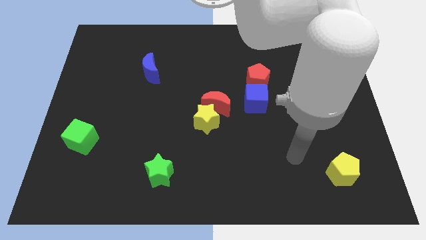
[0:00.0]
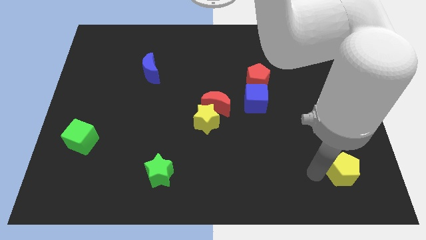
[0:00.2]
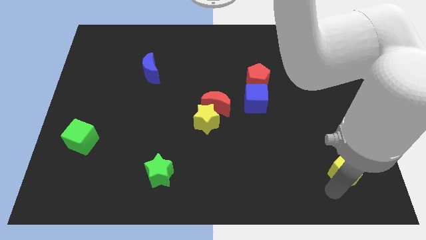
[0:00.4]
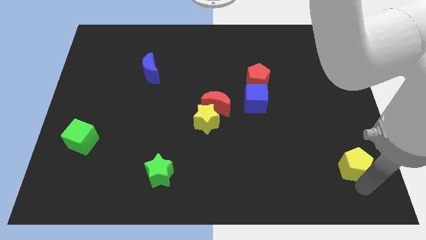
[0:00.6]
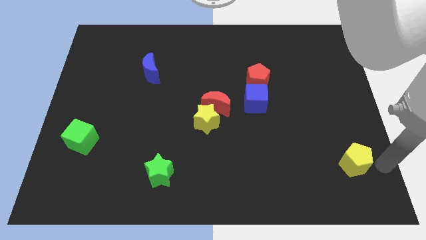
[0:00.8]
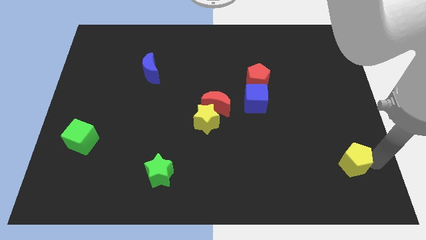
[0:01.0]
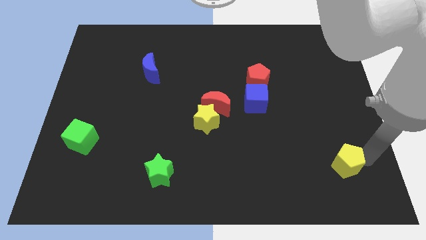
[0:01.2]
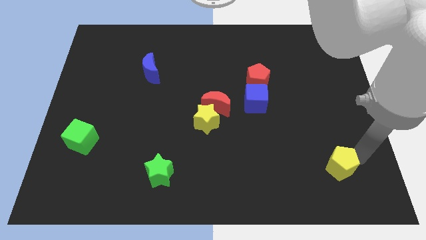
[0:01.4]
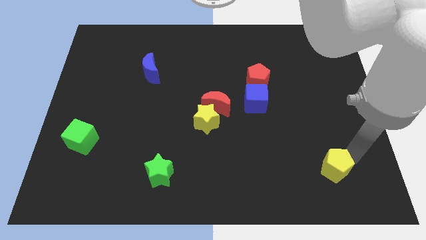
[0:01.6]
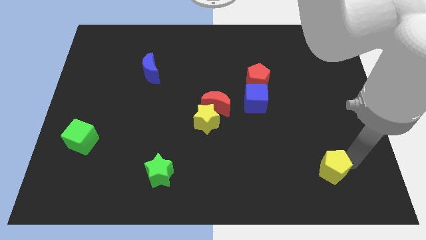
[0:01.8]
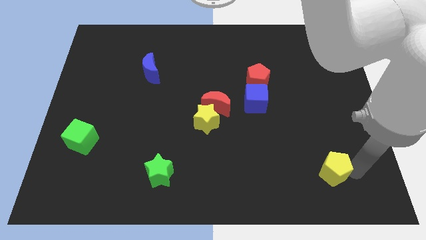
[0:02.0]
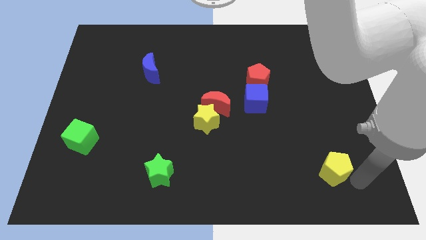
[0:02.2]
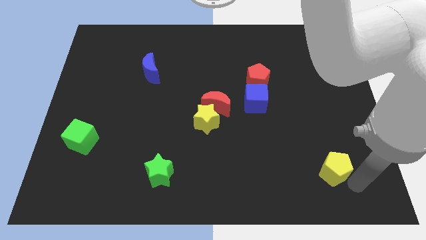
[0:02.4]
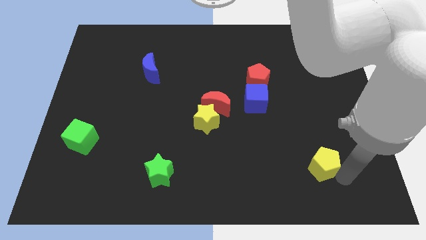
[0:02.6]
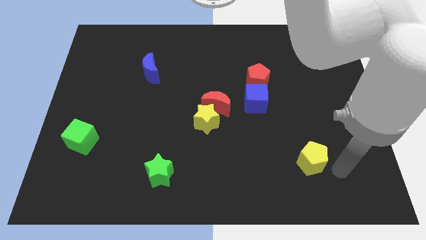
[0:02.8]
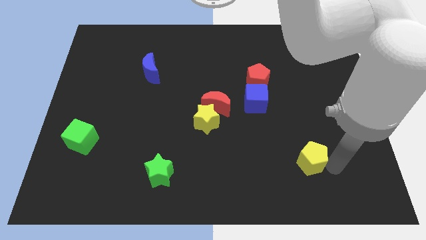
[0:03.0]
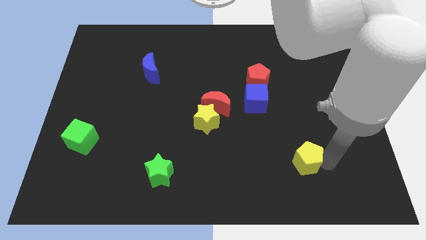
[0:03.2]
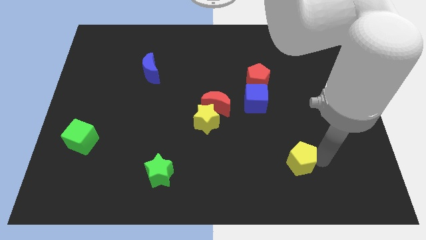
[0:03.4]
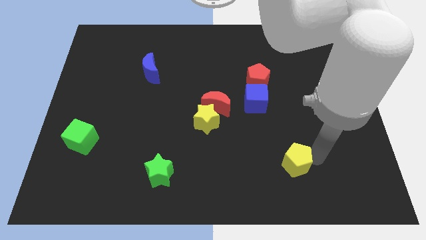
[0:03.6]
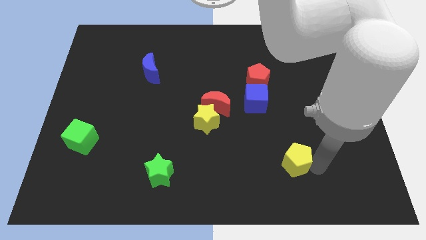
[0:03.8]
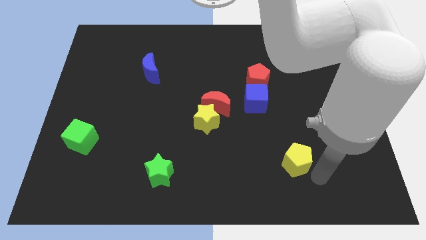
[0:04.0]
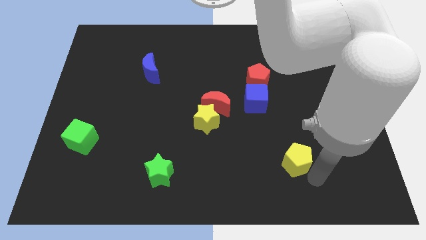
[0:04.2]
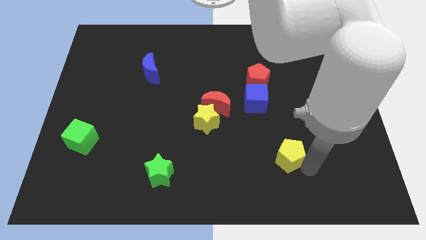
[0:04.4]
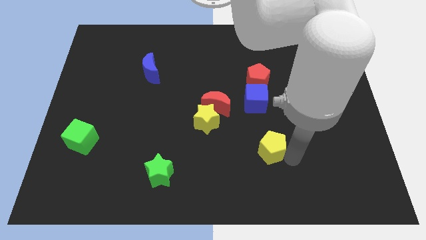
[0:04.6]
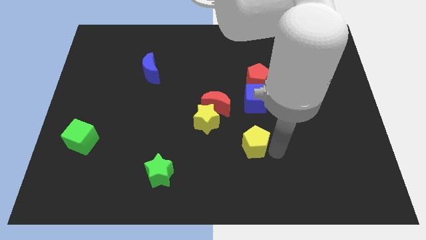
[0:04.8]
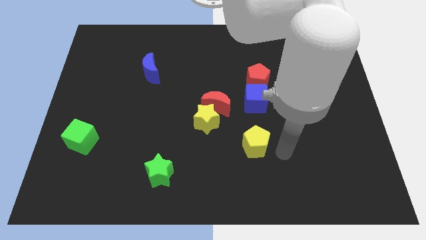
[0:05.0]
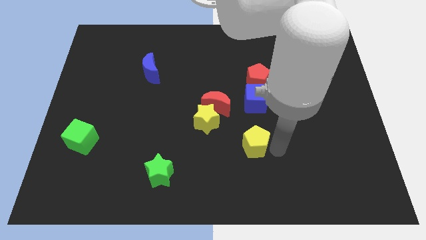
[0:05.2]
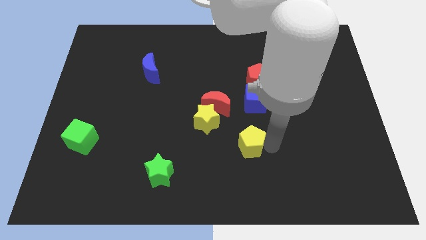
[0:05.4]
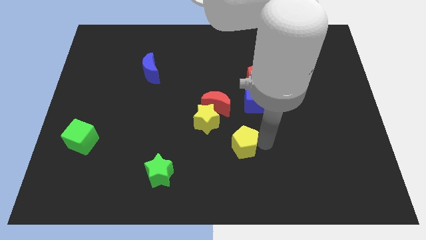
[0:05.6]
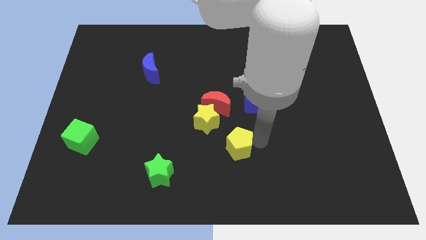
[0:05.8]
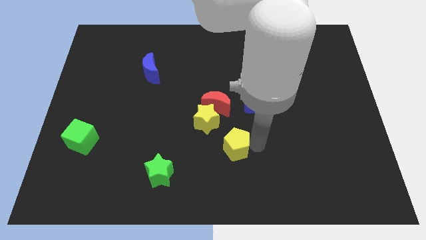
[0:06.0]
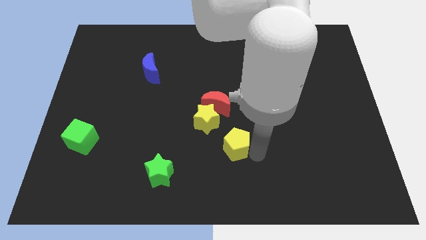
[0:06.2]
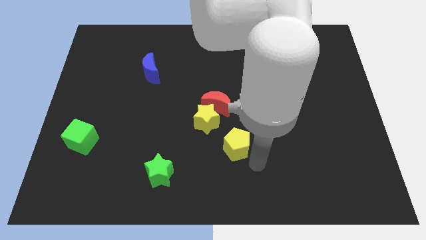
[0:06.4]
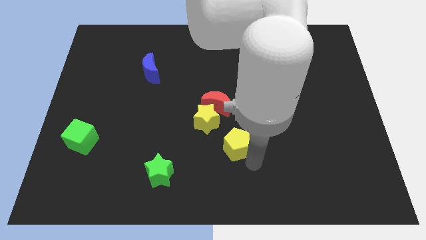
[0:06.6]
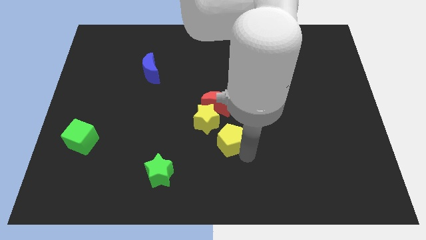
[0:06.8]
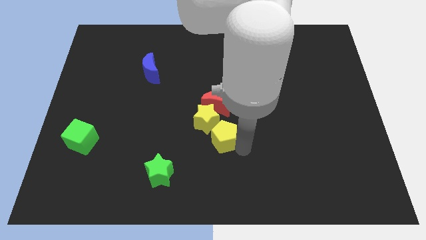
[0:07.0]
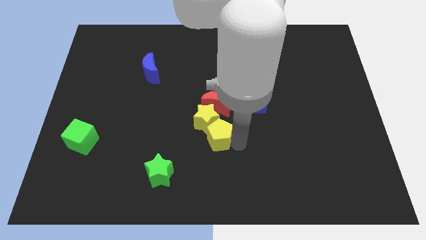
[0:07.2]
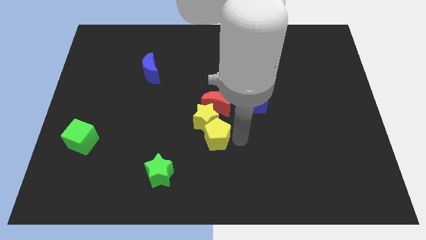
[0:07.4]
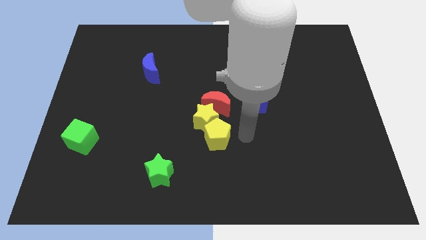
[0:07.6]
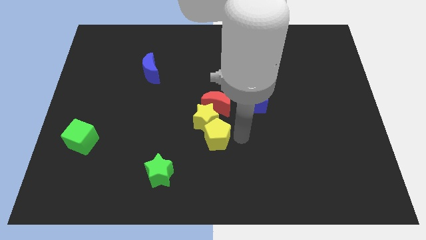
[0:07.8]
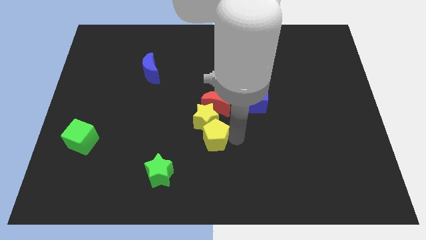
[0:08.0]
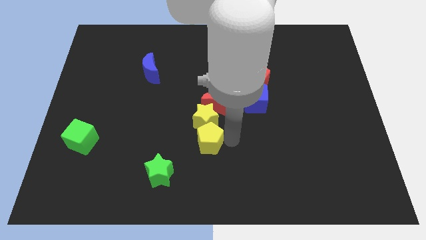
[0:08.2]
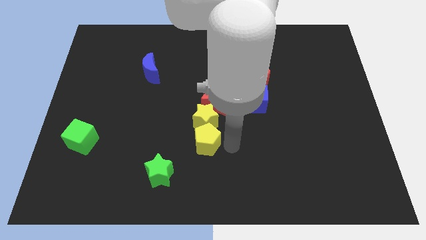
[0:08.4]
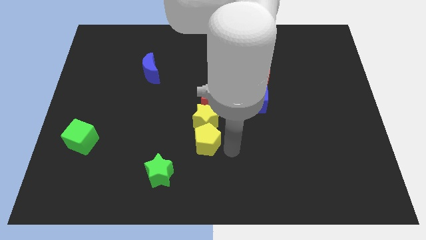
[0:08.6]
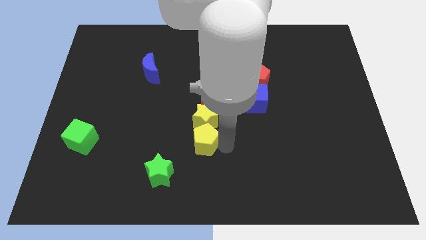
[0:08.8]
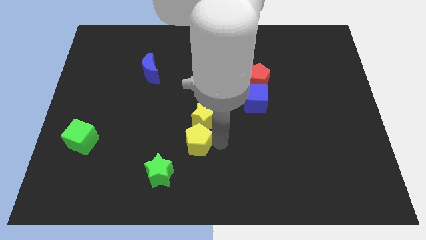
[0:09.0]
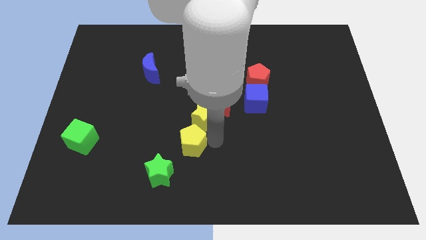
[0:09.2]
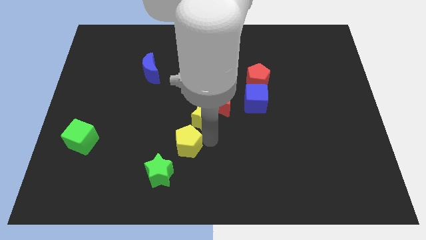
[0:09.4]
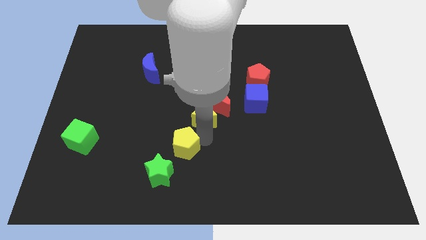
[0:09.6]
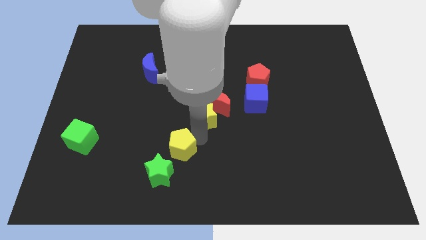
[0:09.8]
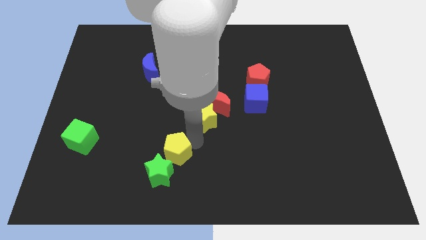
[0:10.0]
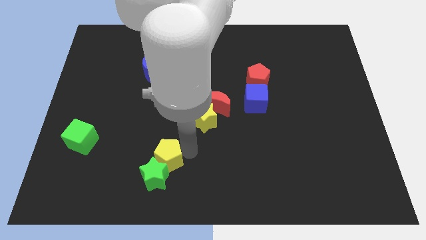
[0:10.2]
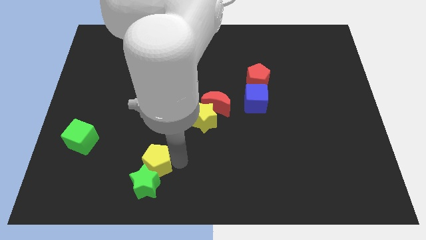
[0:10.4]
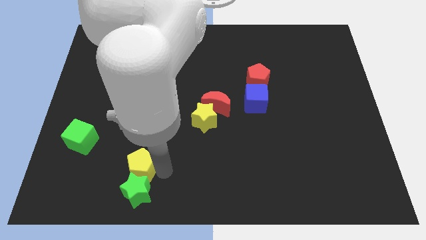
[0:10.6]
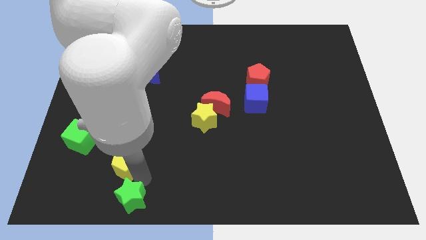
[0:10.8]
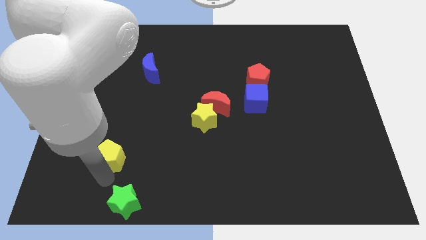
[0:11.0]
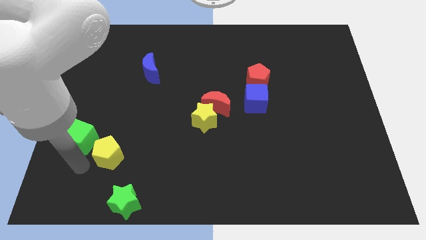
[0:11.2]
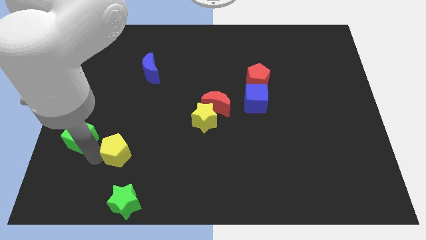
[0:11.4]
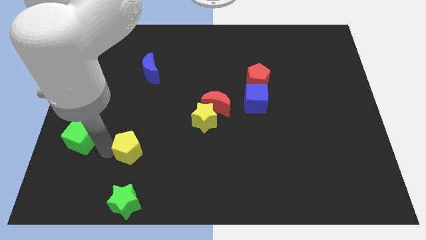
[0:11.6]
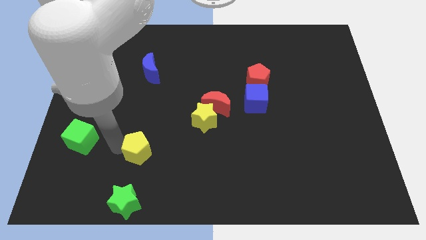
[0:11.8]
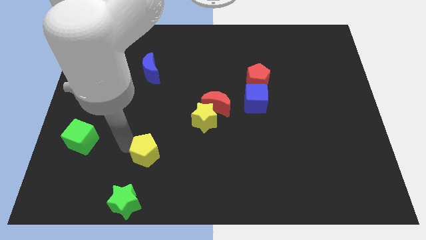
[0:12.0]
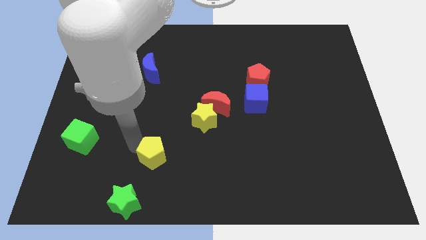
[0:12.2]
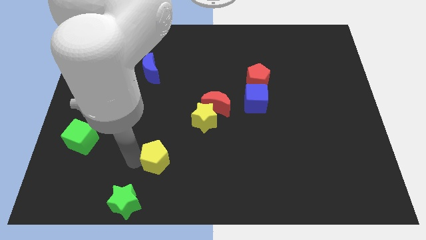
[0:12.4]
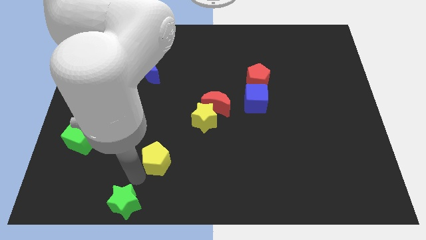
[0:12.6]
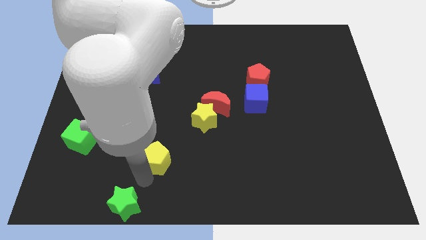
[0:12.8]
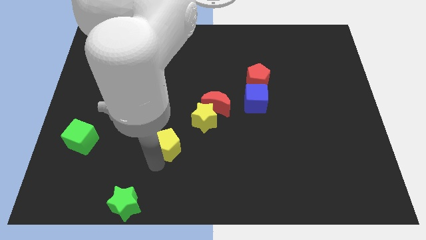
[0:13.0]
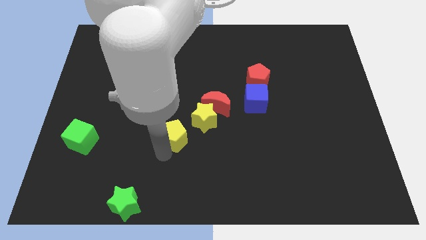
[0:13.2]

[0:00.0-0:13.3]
move the yellow pentagon to the left side of the yellow star

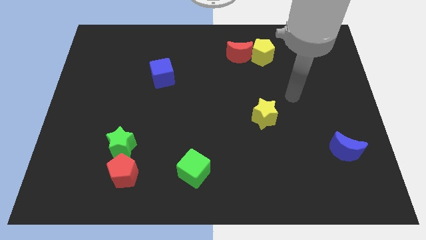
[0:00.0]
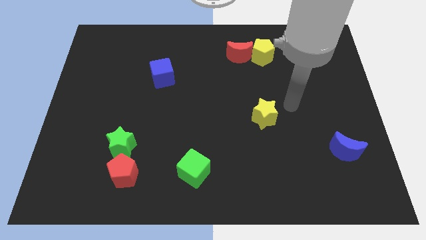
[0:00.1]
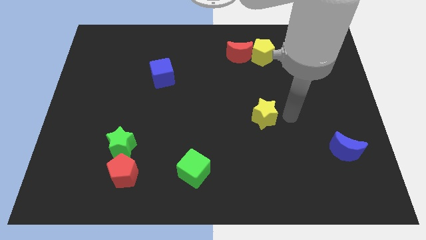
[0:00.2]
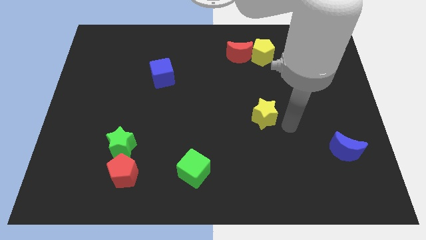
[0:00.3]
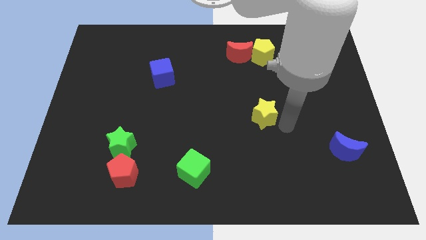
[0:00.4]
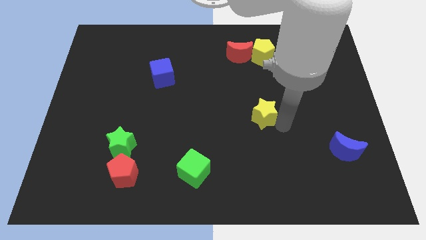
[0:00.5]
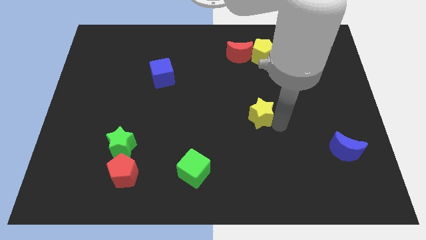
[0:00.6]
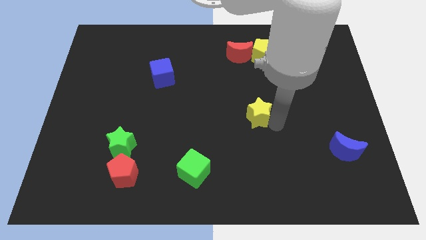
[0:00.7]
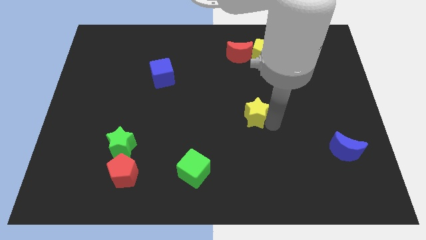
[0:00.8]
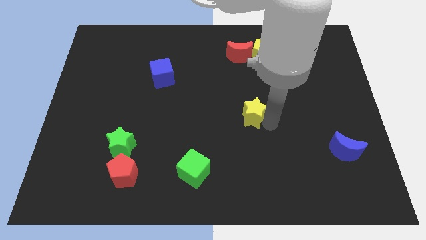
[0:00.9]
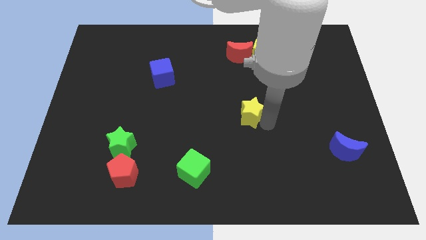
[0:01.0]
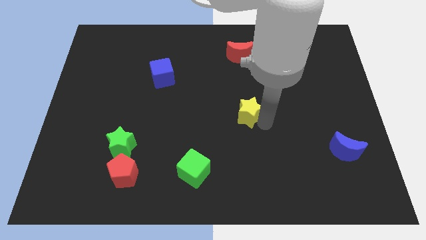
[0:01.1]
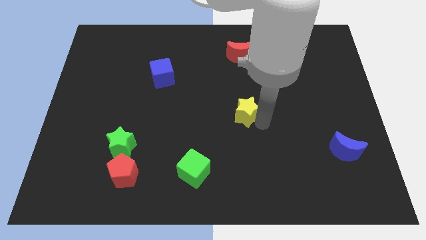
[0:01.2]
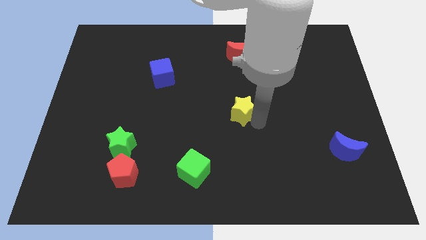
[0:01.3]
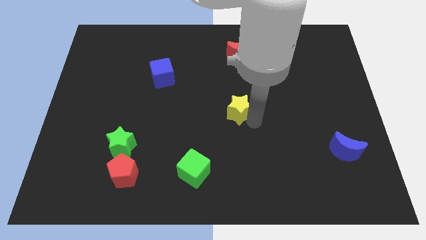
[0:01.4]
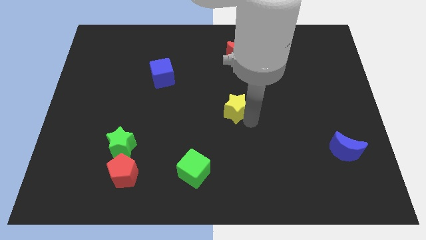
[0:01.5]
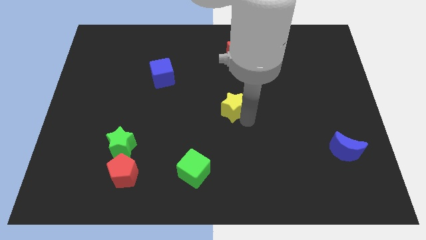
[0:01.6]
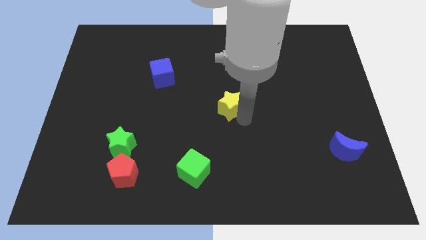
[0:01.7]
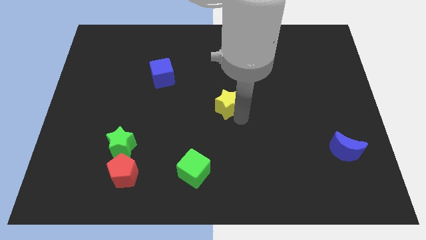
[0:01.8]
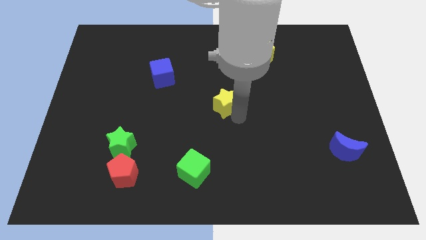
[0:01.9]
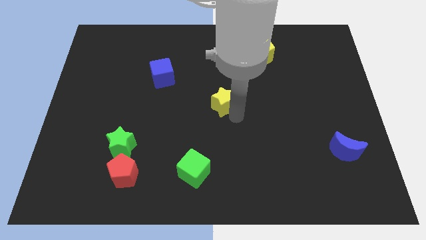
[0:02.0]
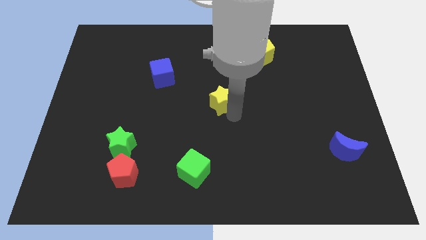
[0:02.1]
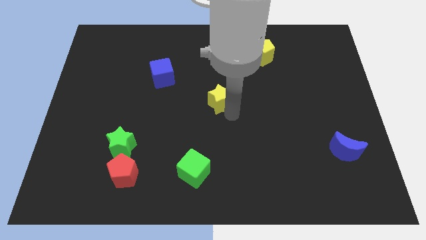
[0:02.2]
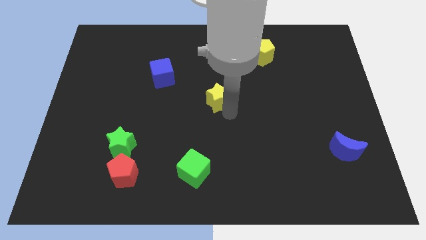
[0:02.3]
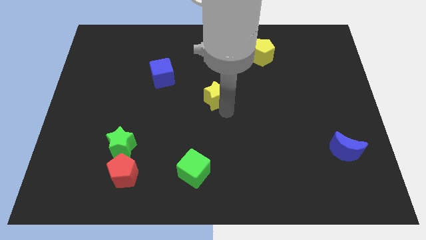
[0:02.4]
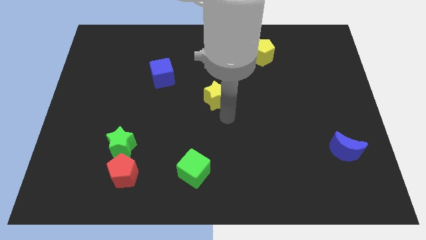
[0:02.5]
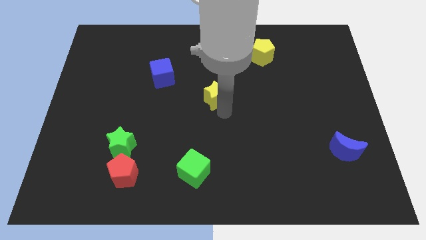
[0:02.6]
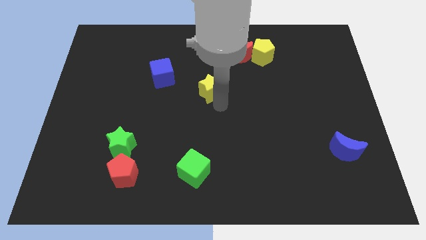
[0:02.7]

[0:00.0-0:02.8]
put the yellow star right of the blue cube
